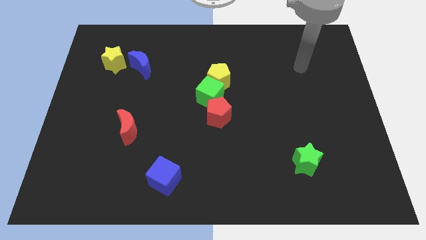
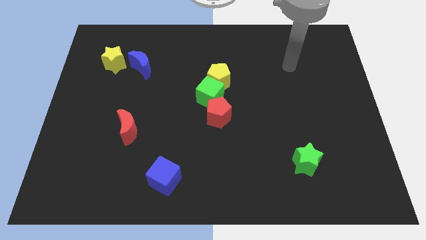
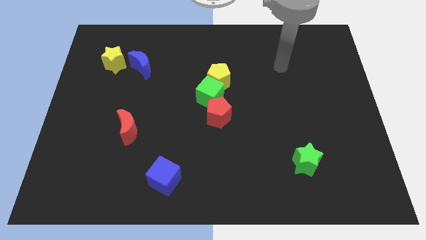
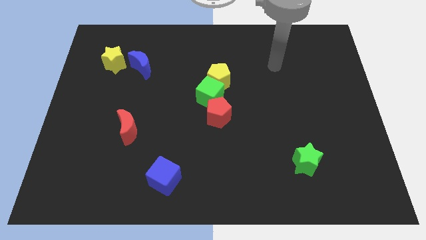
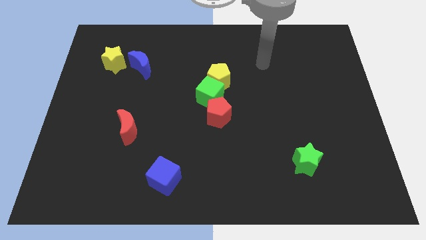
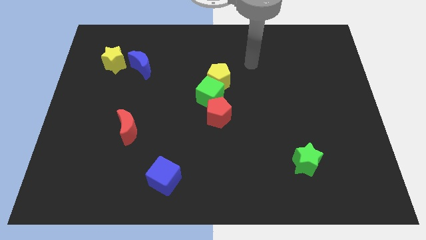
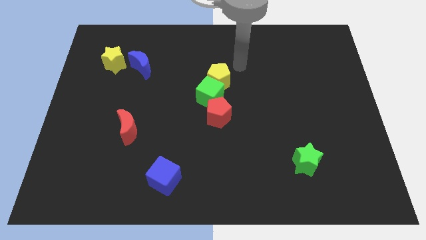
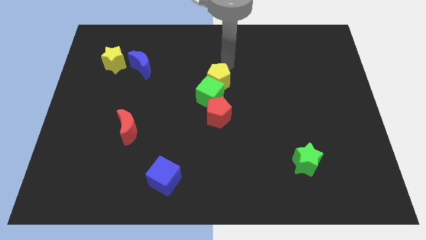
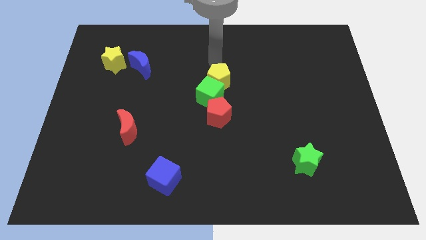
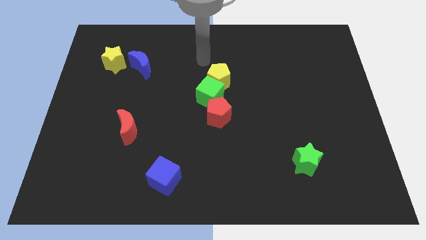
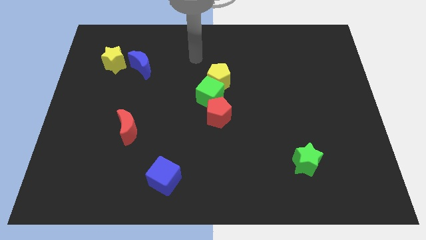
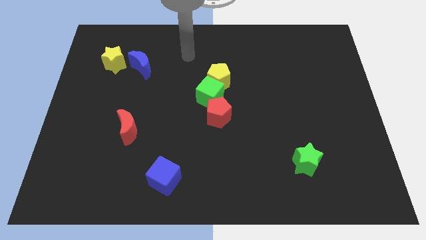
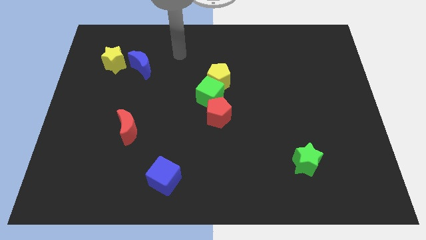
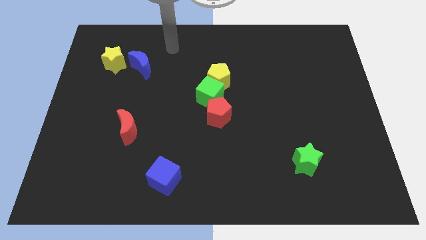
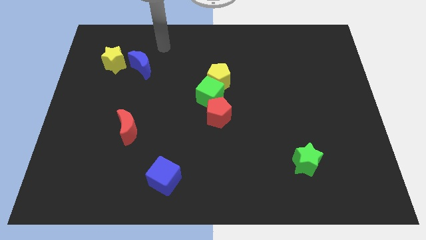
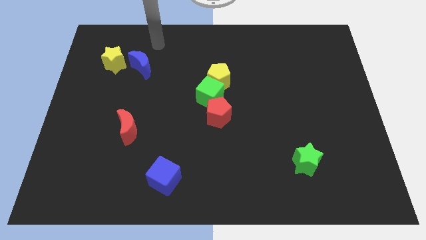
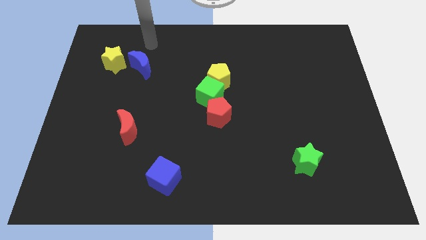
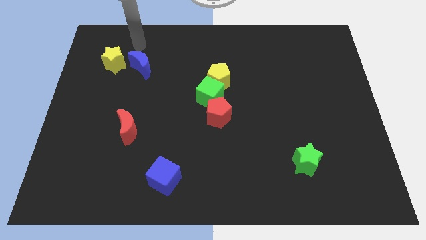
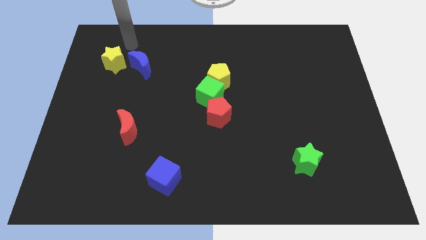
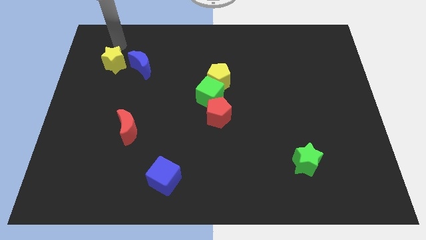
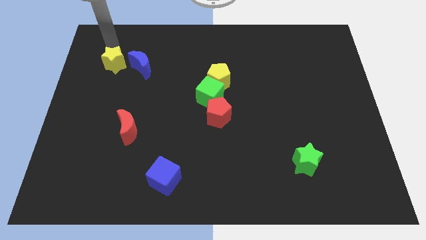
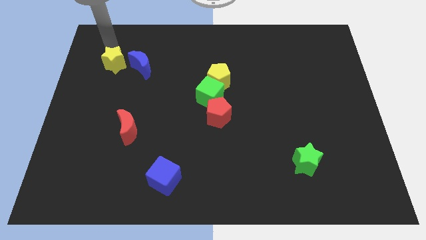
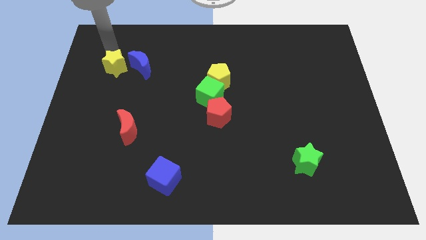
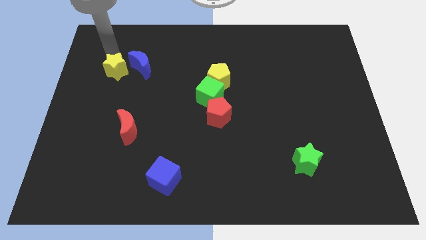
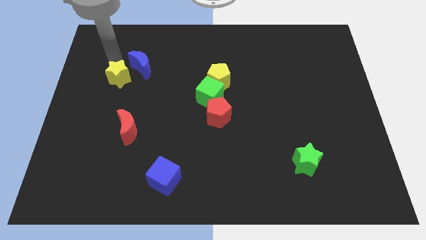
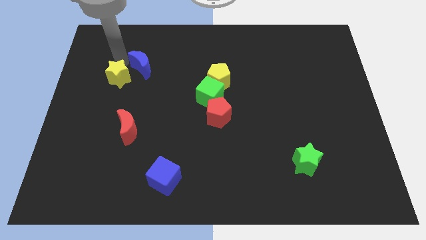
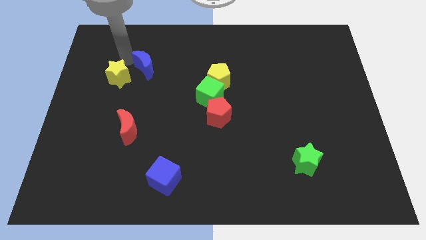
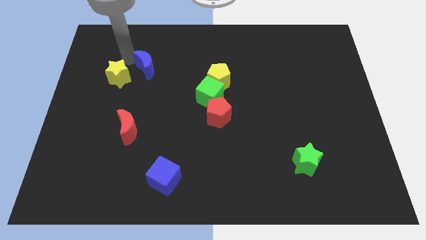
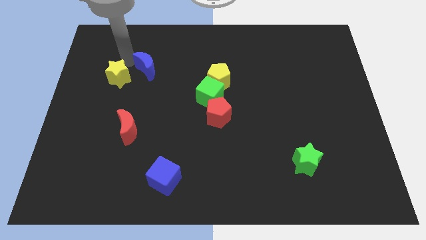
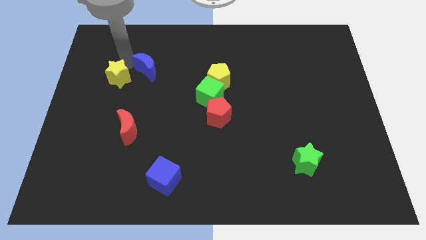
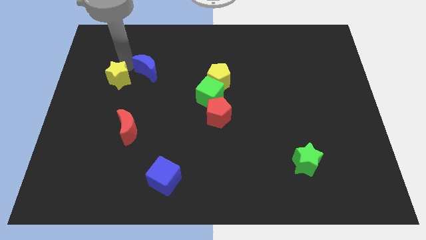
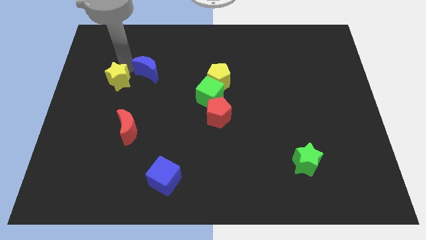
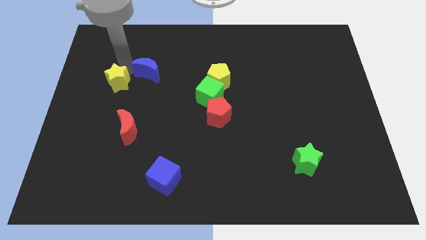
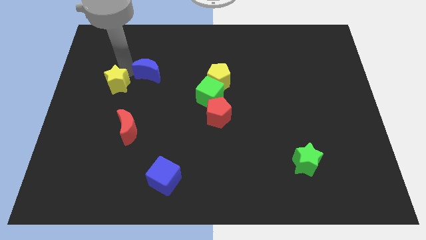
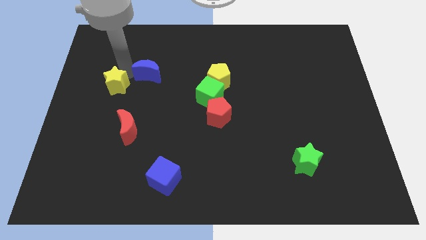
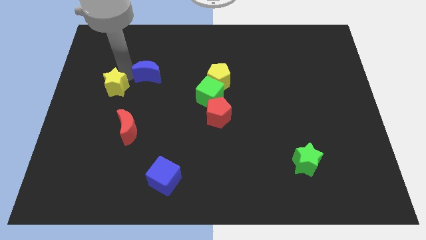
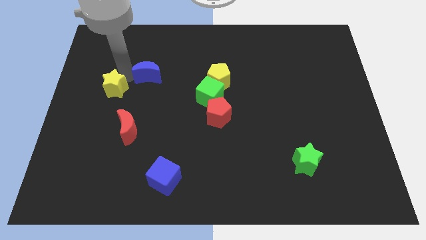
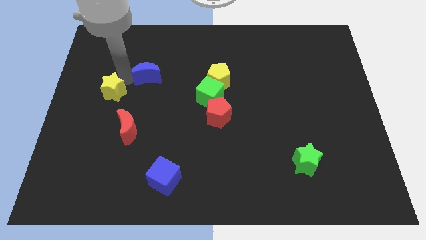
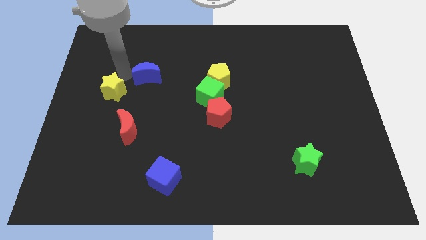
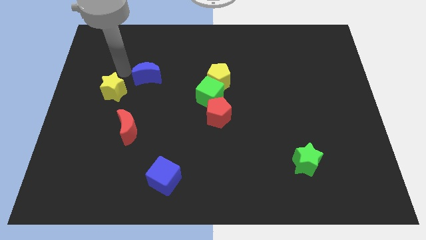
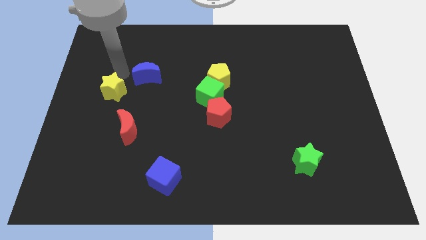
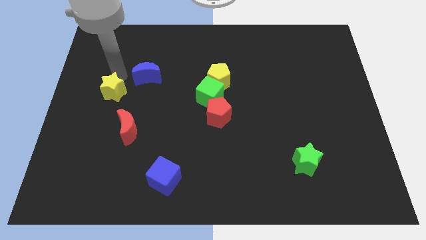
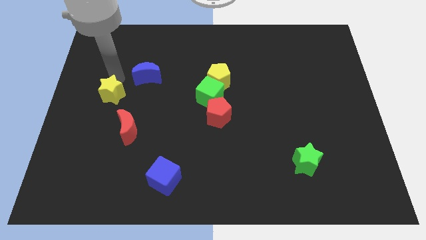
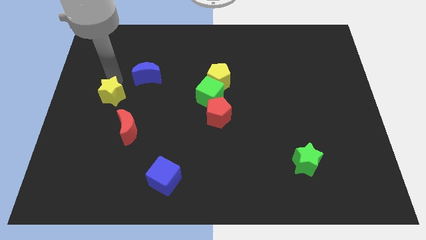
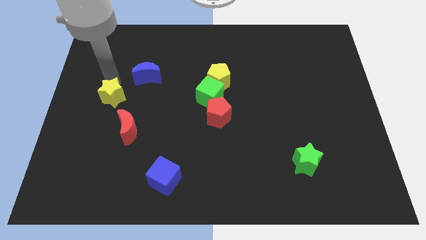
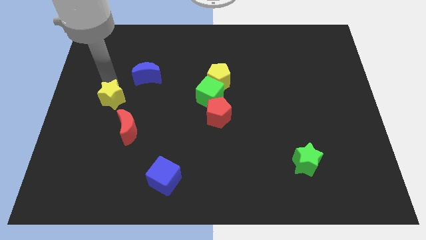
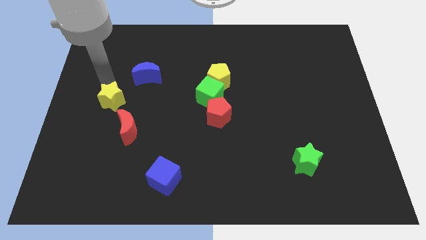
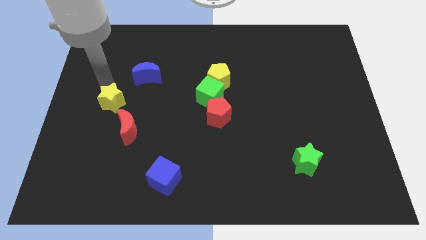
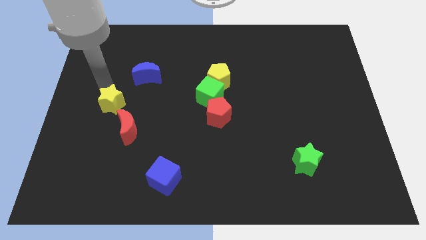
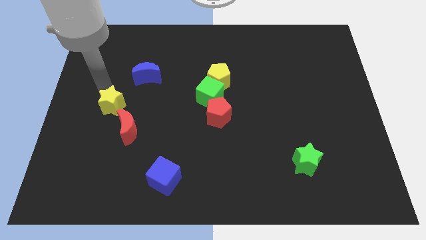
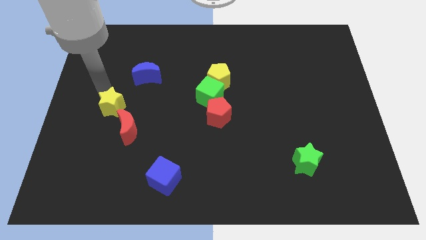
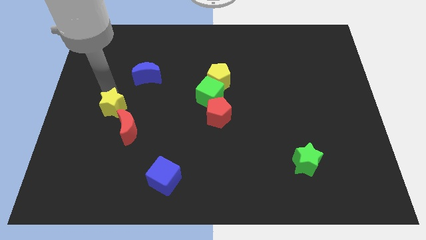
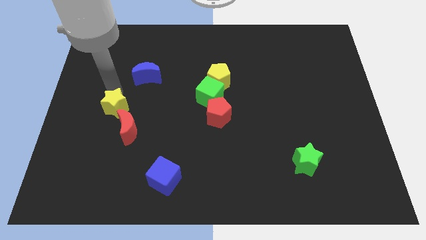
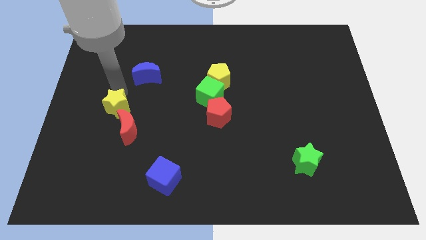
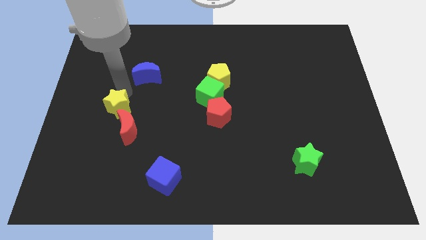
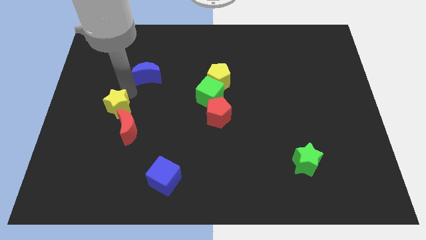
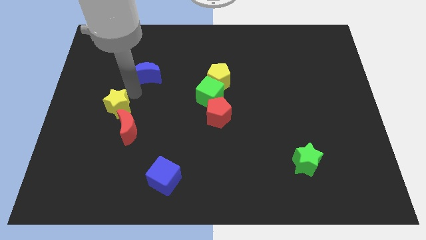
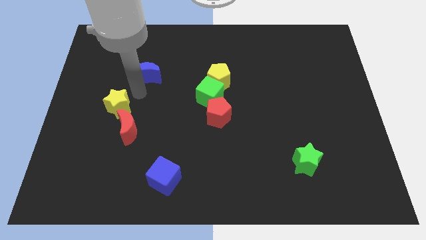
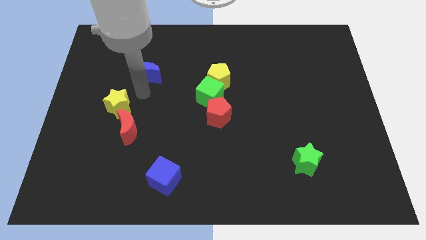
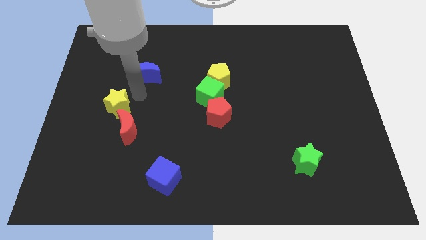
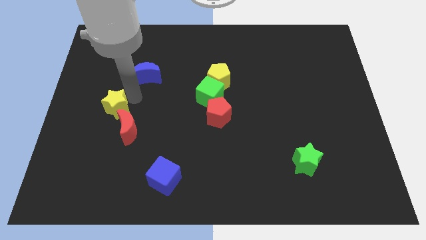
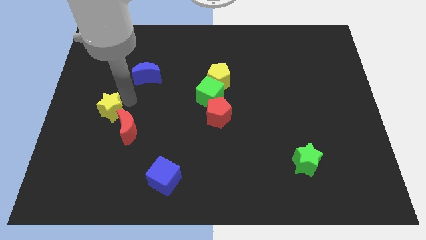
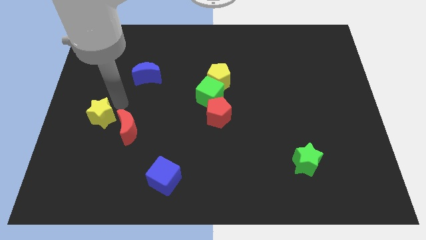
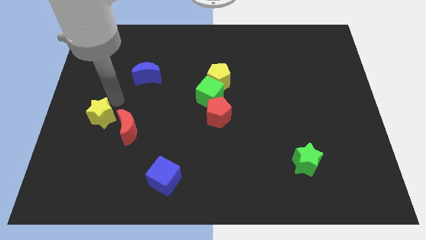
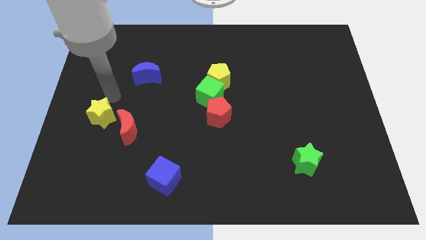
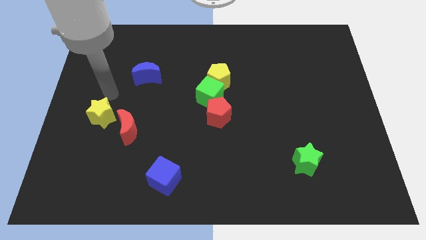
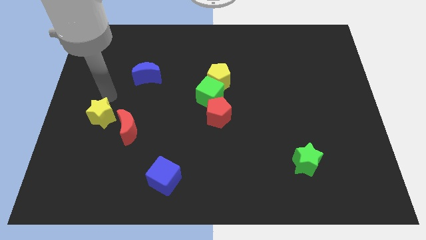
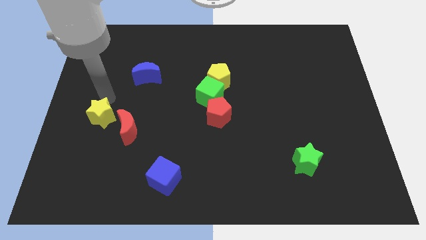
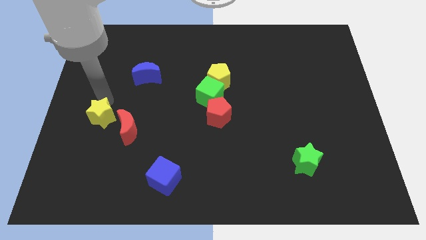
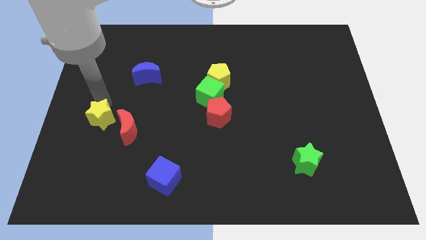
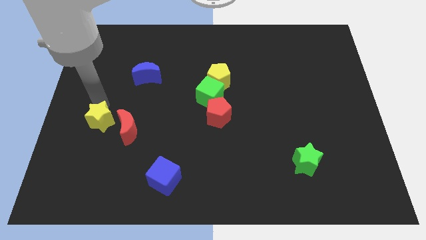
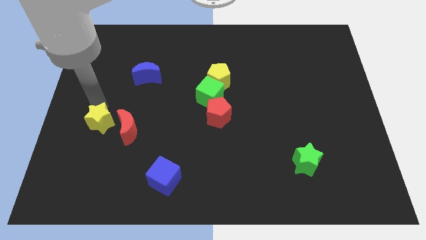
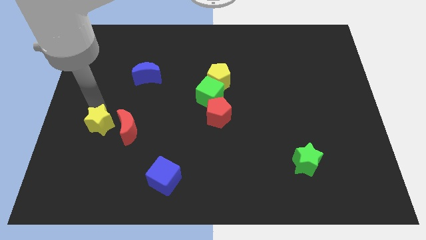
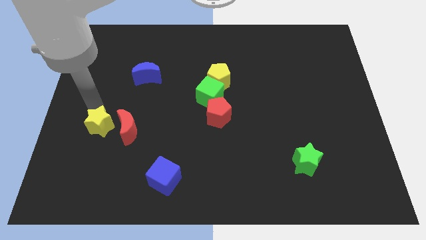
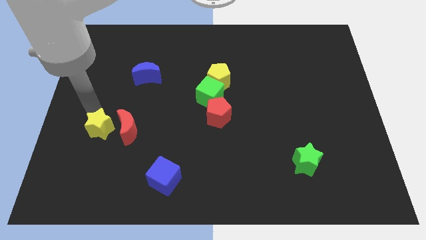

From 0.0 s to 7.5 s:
push the yellow star downwards

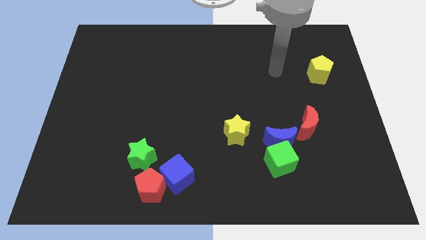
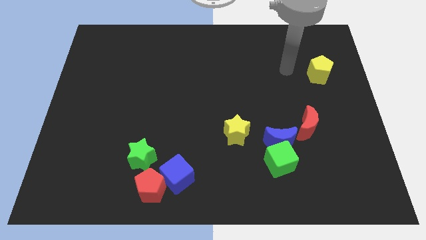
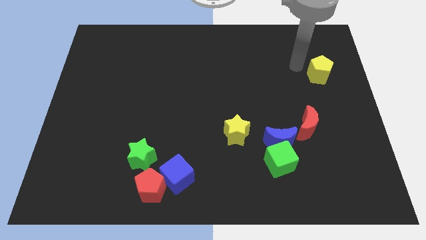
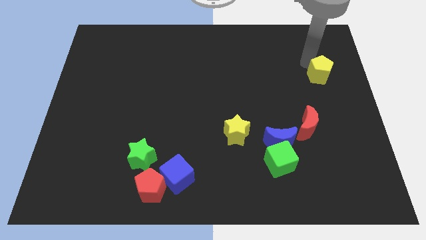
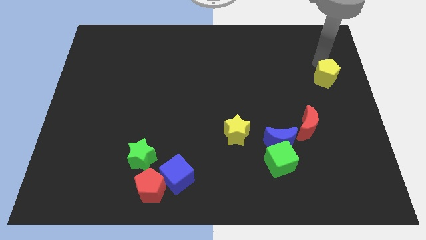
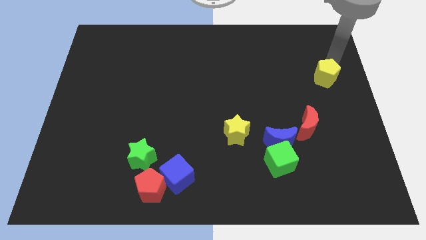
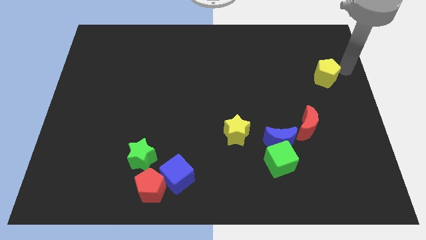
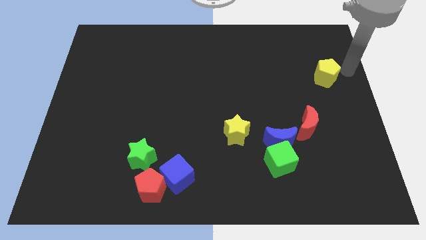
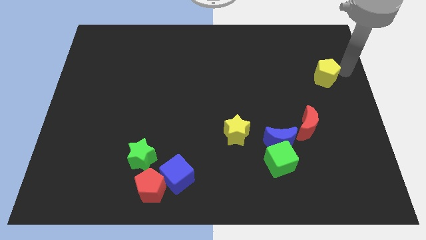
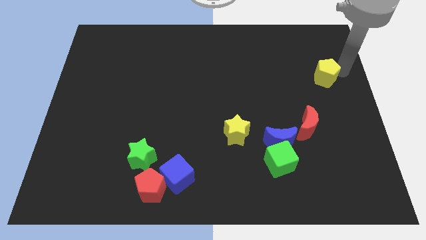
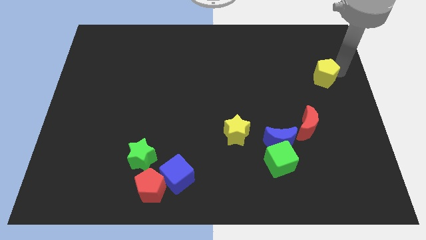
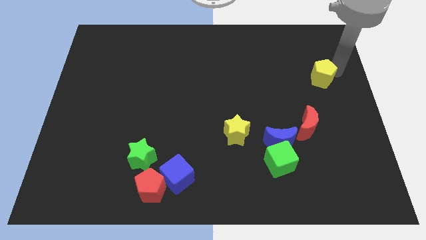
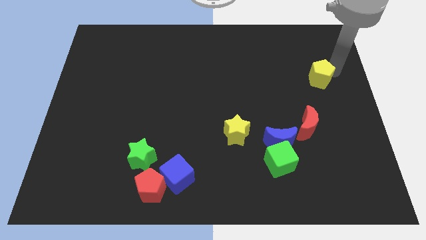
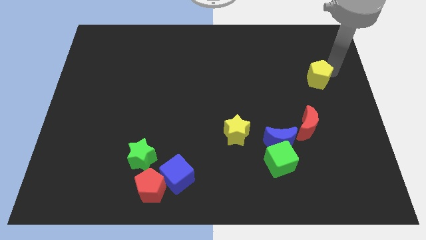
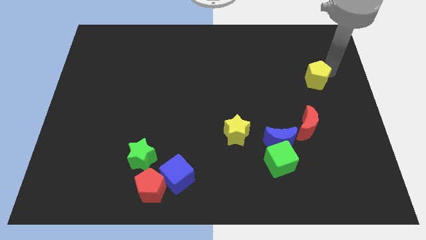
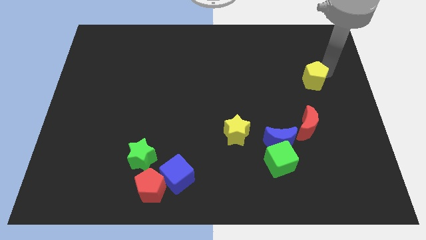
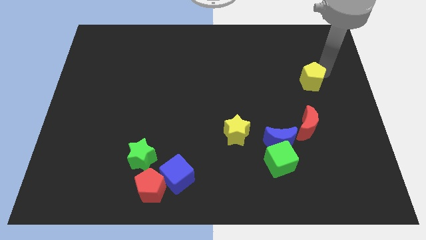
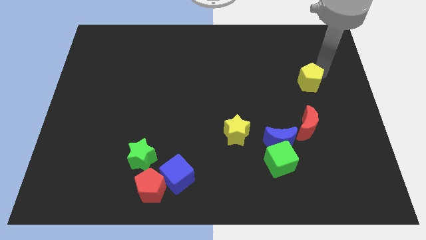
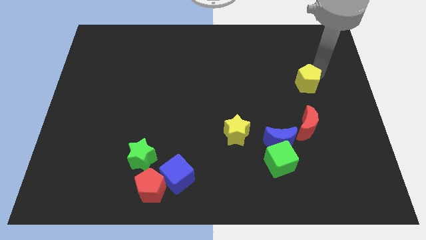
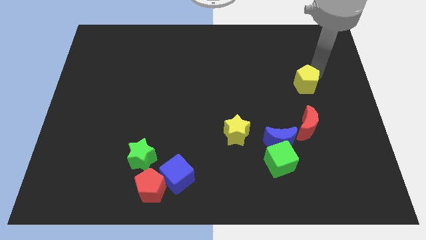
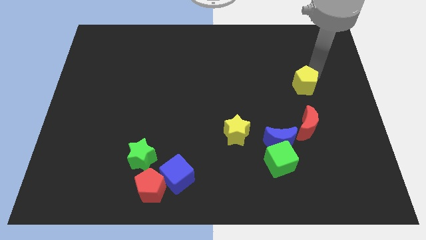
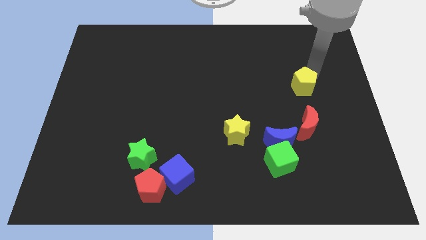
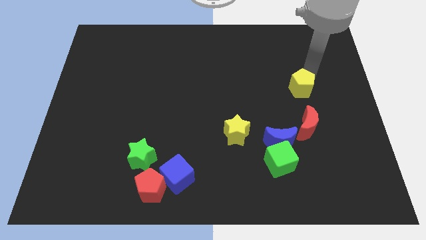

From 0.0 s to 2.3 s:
slide the yellow pentagon a little bit down and left
